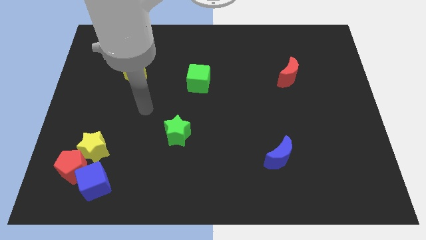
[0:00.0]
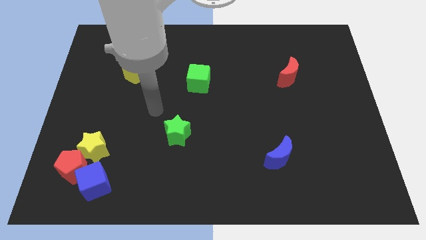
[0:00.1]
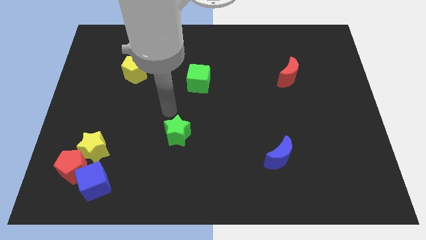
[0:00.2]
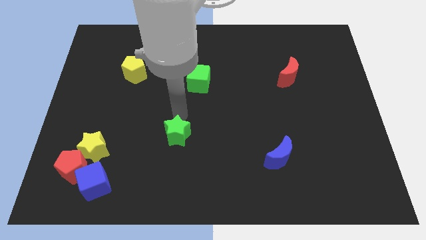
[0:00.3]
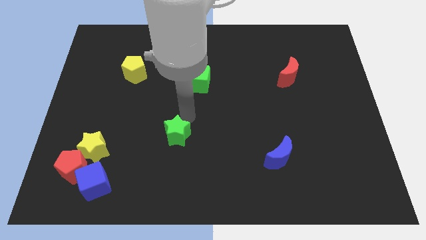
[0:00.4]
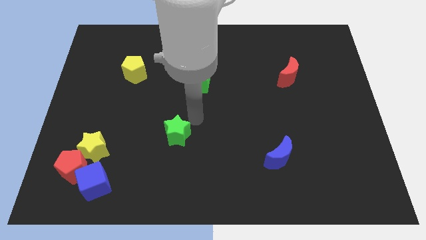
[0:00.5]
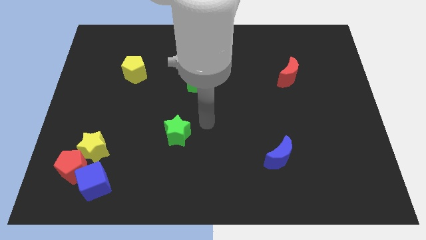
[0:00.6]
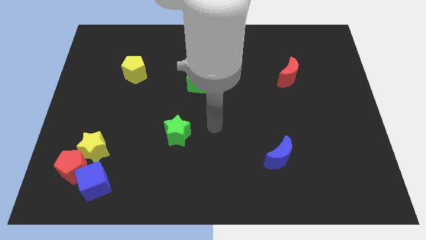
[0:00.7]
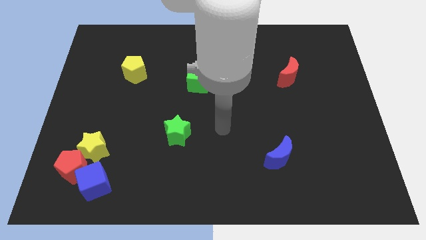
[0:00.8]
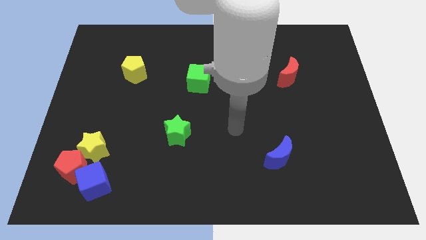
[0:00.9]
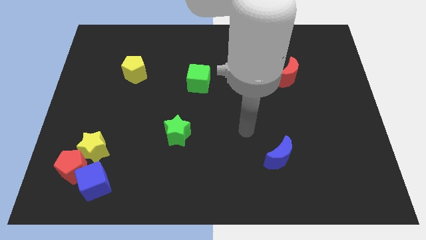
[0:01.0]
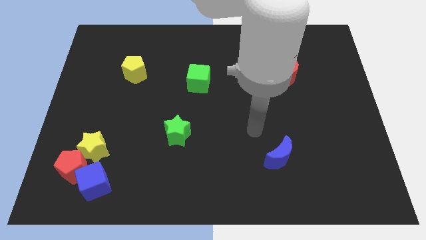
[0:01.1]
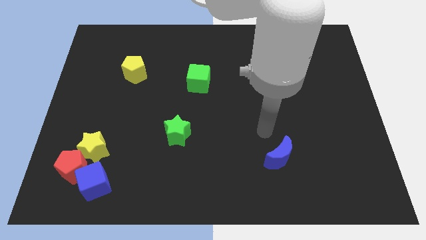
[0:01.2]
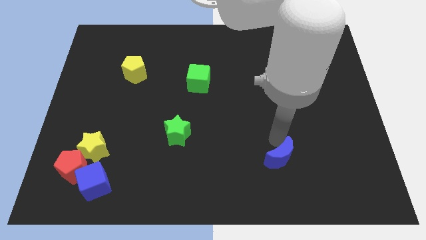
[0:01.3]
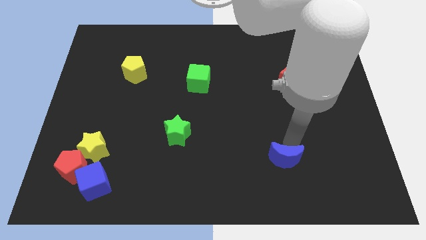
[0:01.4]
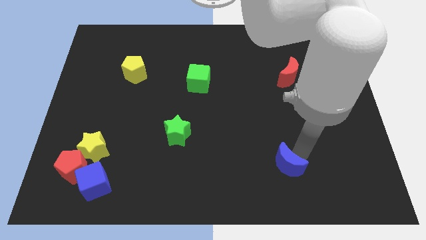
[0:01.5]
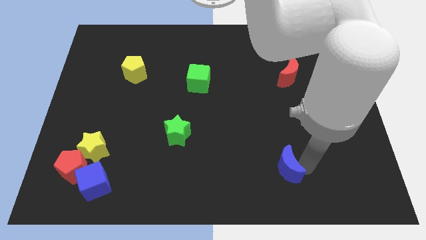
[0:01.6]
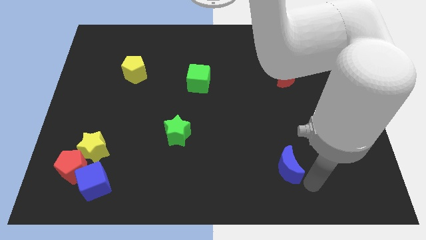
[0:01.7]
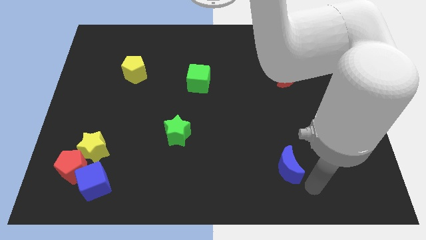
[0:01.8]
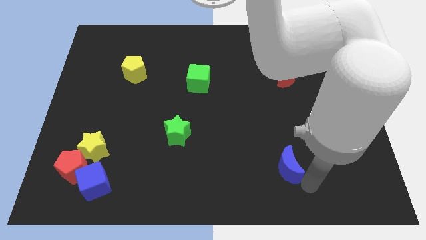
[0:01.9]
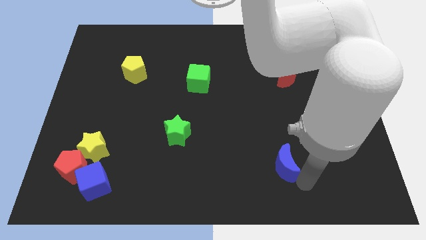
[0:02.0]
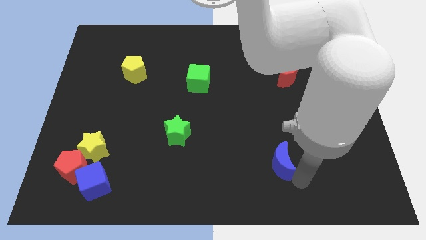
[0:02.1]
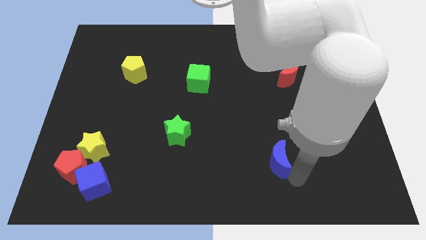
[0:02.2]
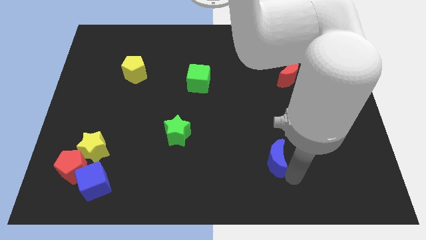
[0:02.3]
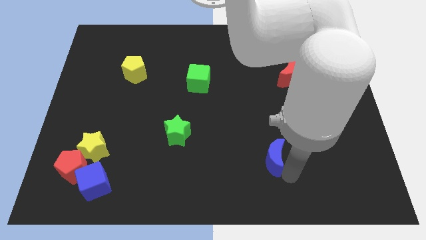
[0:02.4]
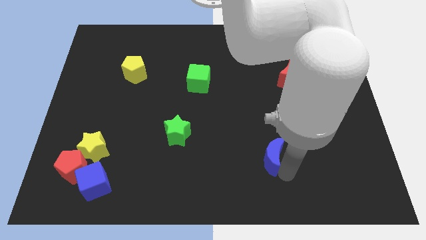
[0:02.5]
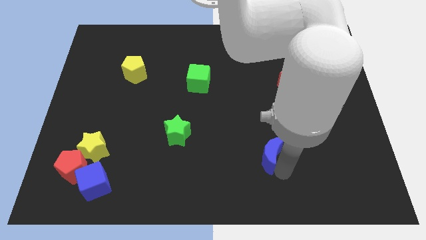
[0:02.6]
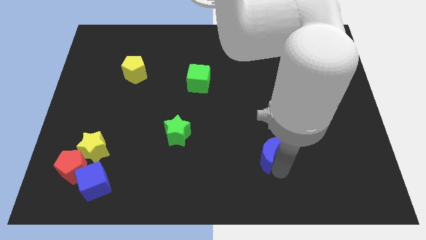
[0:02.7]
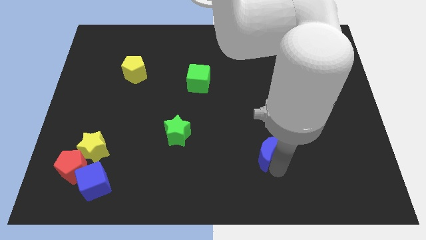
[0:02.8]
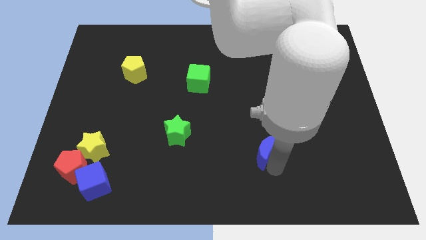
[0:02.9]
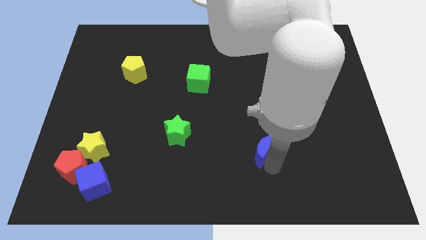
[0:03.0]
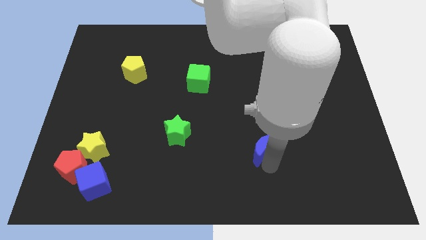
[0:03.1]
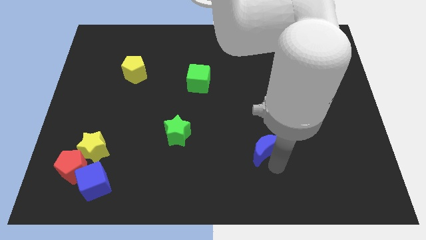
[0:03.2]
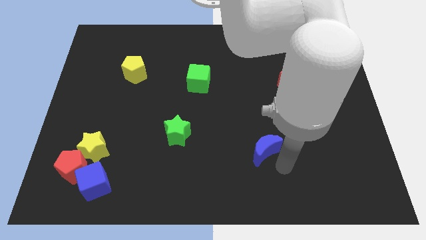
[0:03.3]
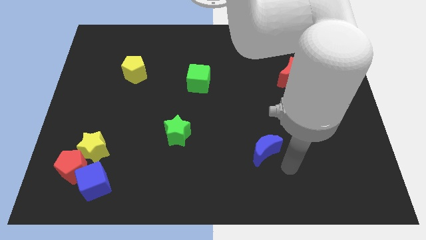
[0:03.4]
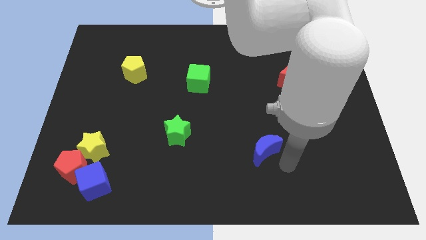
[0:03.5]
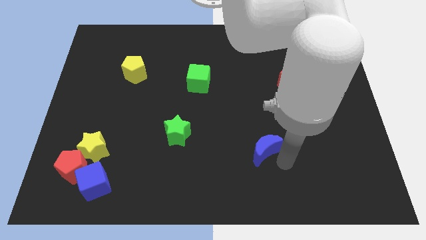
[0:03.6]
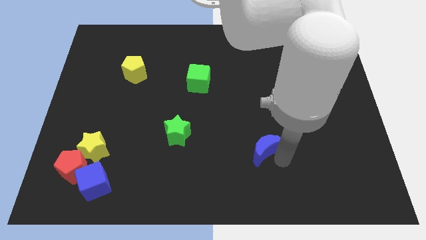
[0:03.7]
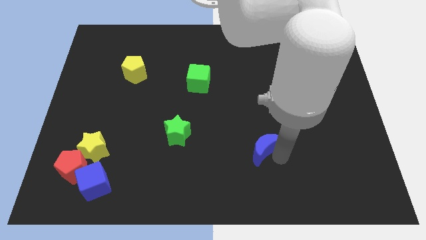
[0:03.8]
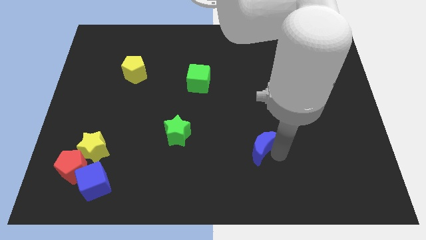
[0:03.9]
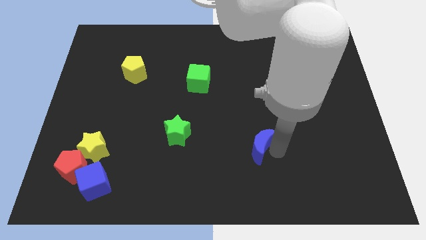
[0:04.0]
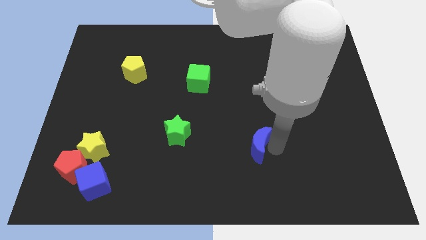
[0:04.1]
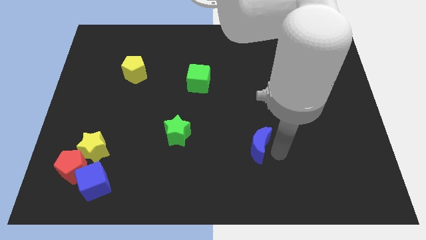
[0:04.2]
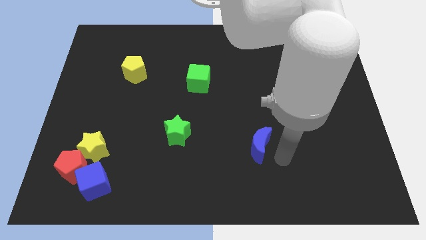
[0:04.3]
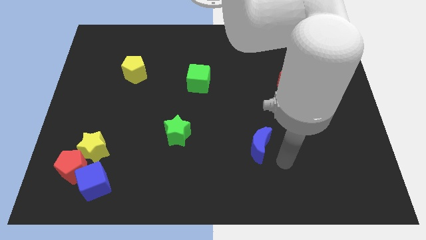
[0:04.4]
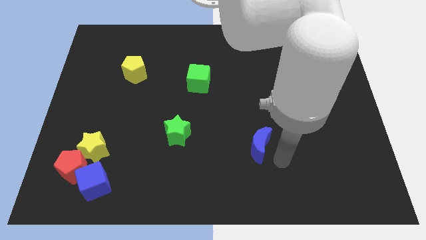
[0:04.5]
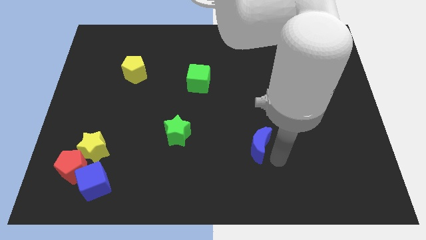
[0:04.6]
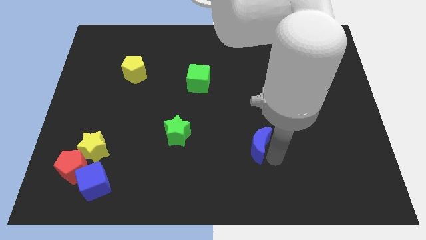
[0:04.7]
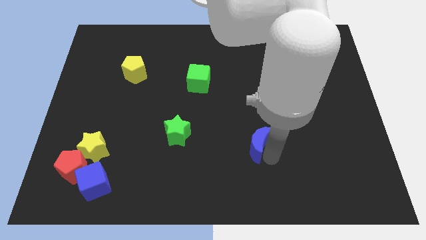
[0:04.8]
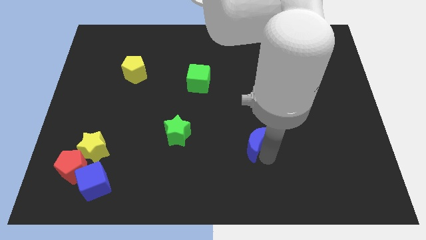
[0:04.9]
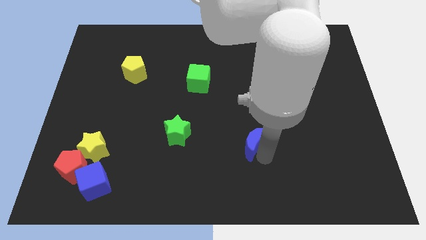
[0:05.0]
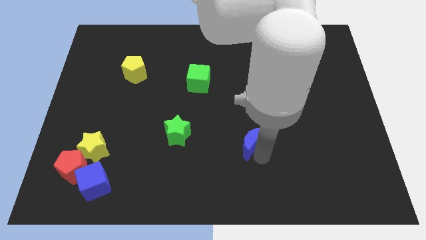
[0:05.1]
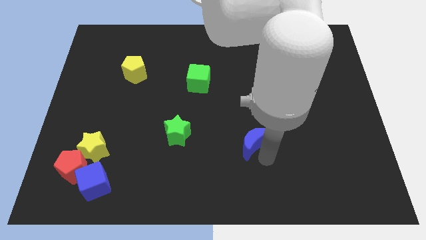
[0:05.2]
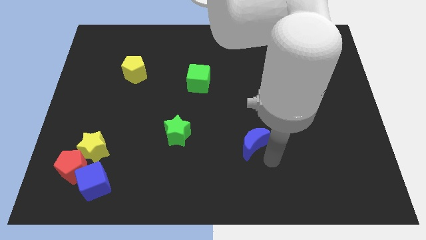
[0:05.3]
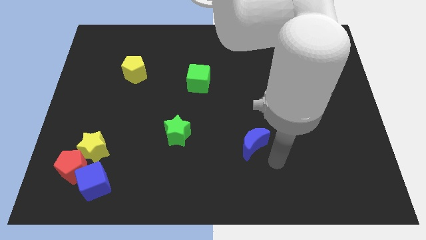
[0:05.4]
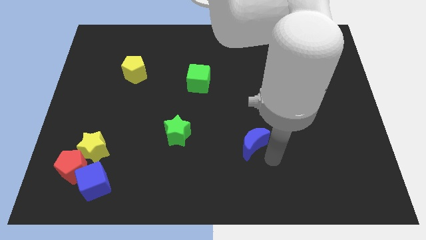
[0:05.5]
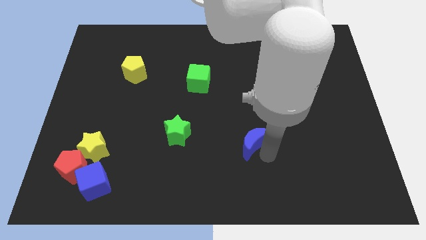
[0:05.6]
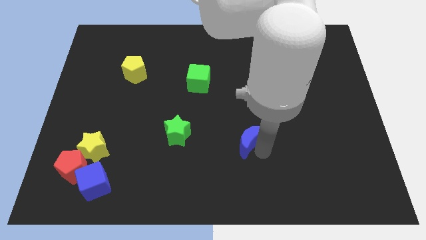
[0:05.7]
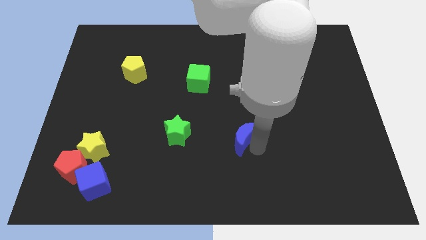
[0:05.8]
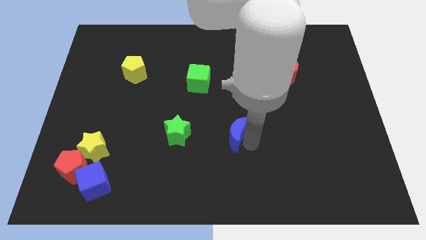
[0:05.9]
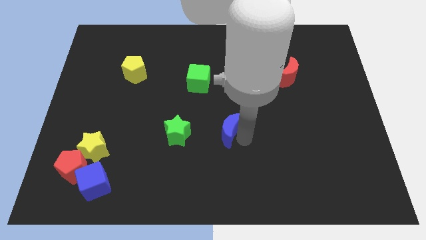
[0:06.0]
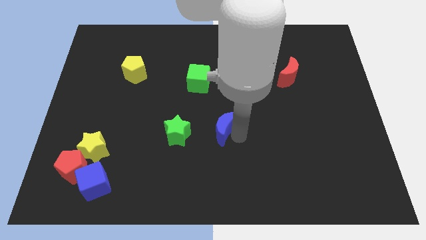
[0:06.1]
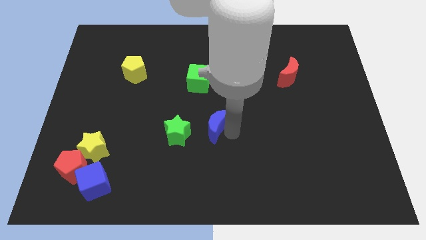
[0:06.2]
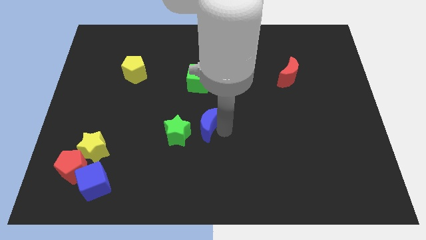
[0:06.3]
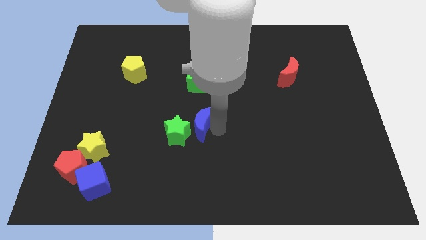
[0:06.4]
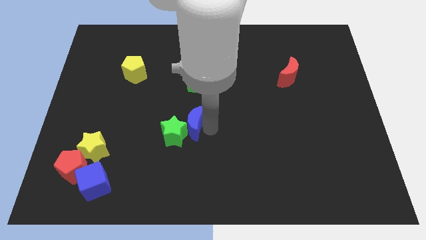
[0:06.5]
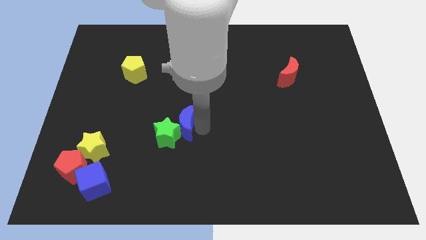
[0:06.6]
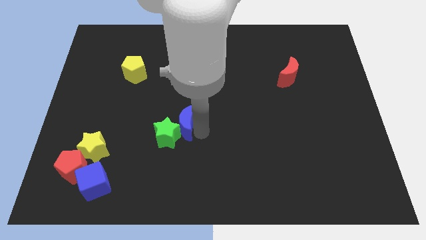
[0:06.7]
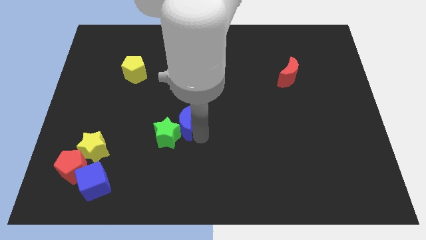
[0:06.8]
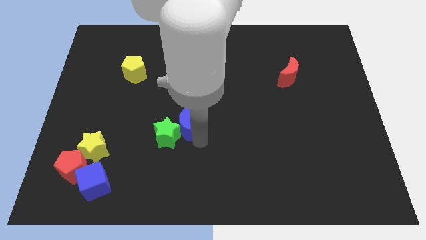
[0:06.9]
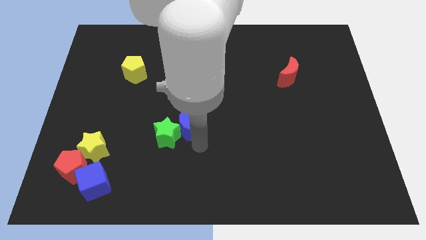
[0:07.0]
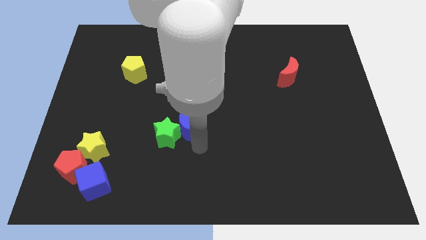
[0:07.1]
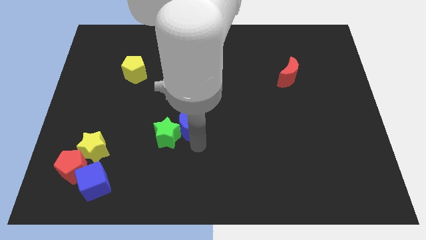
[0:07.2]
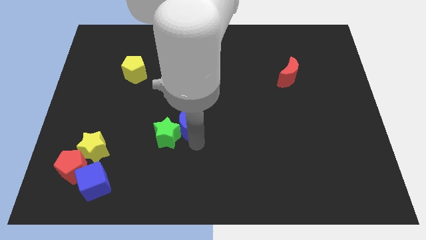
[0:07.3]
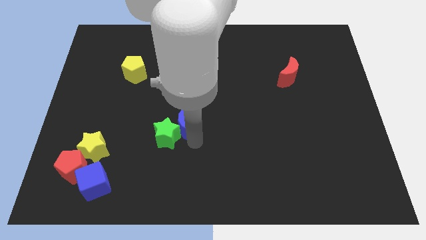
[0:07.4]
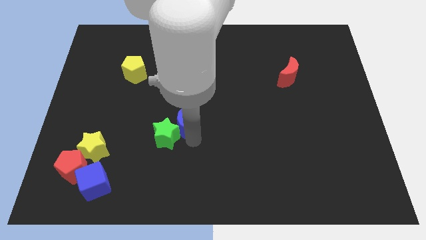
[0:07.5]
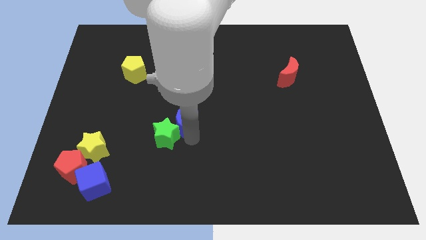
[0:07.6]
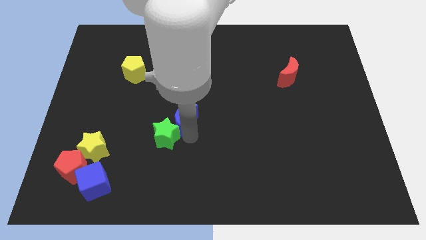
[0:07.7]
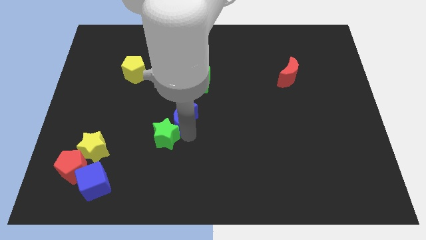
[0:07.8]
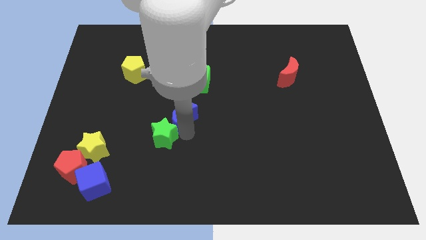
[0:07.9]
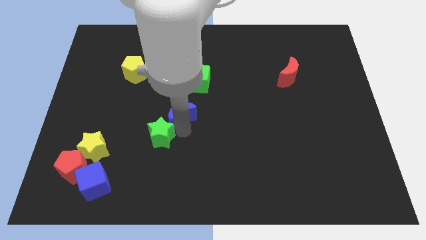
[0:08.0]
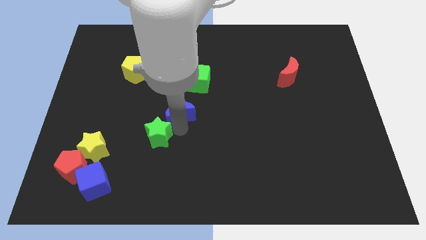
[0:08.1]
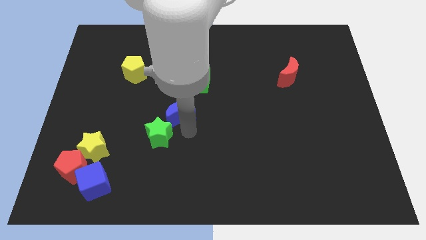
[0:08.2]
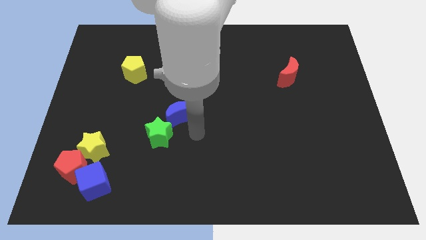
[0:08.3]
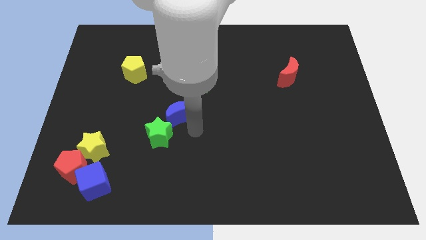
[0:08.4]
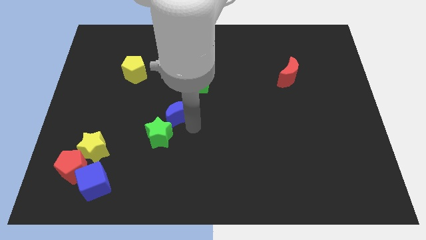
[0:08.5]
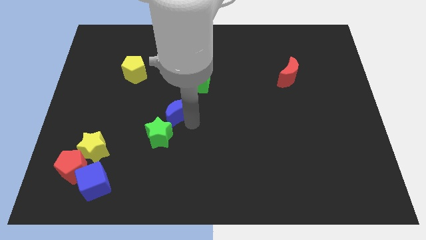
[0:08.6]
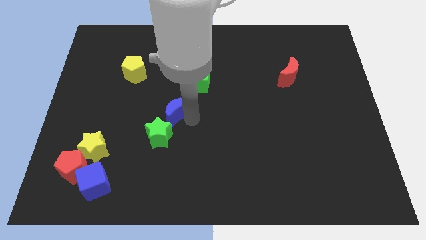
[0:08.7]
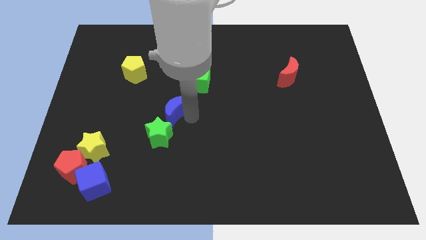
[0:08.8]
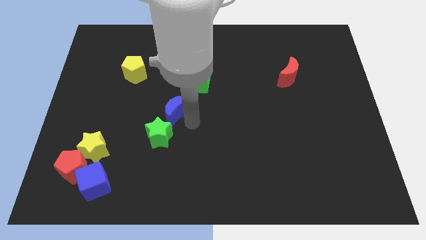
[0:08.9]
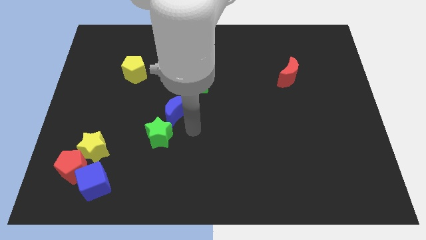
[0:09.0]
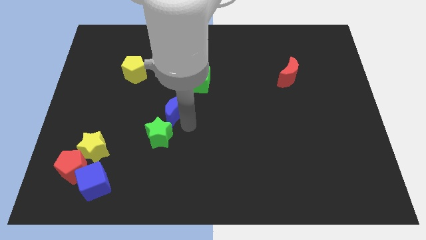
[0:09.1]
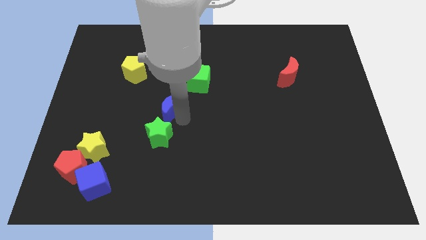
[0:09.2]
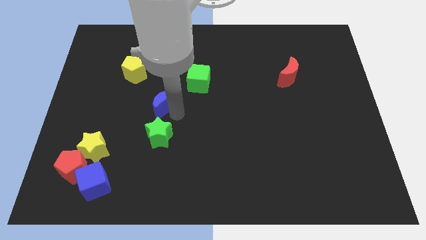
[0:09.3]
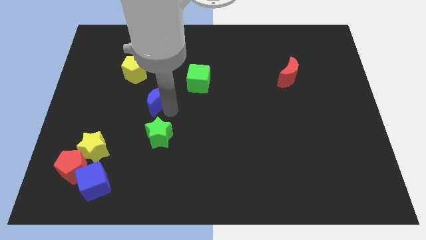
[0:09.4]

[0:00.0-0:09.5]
put the blue moon diagonally down and to the right of the yellow pentagon
